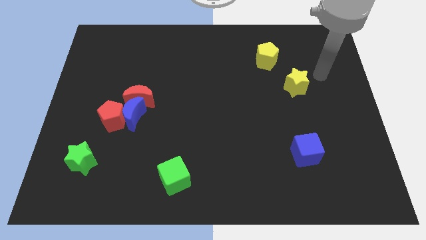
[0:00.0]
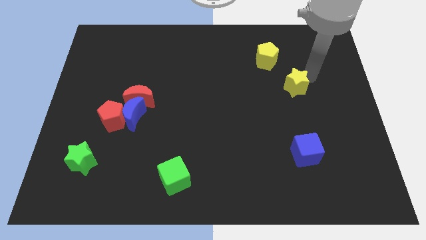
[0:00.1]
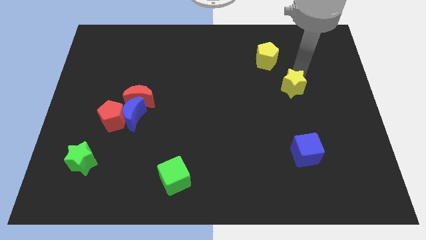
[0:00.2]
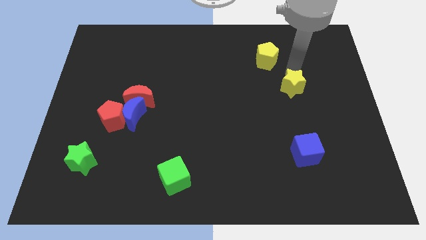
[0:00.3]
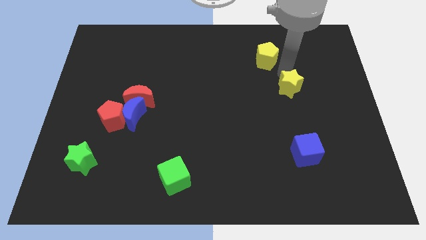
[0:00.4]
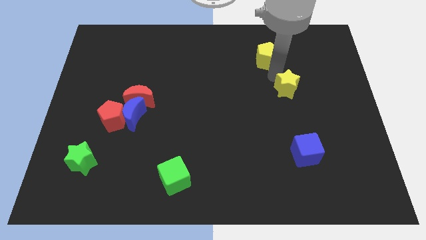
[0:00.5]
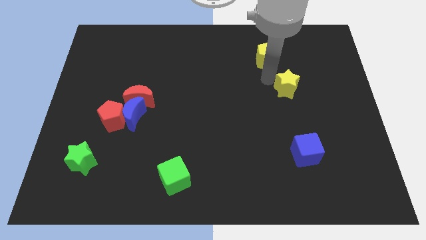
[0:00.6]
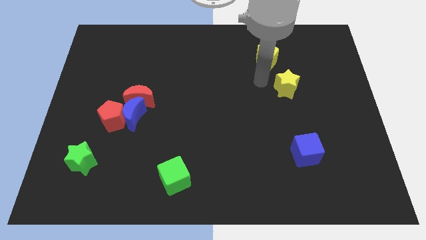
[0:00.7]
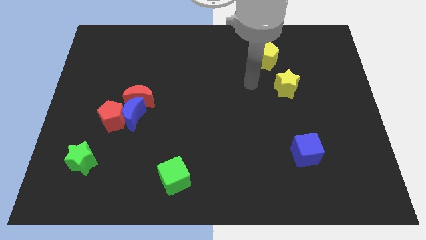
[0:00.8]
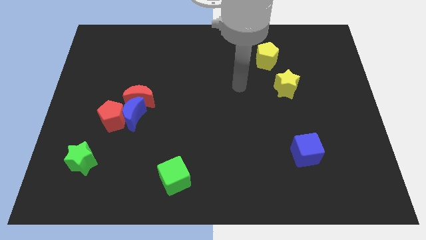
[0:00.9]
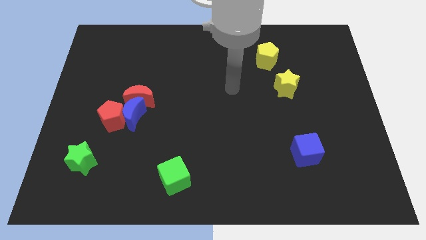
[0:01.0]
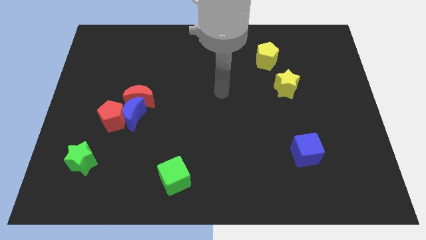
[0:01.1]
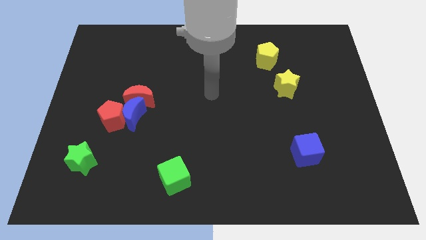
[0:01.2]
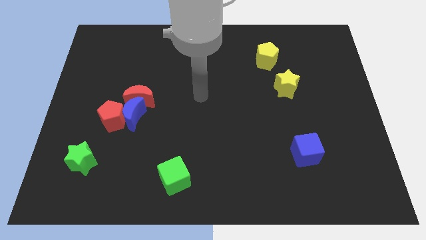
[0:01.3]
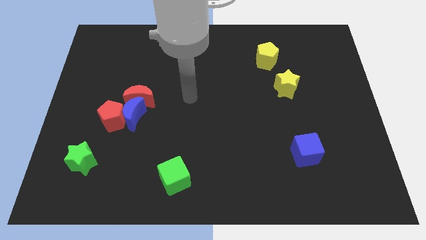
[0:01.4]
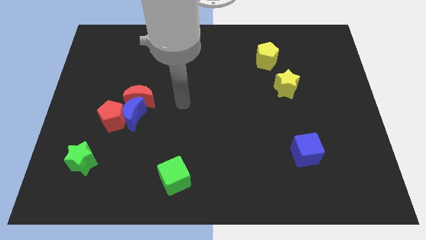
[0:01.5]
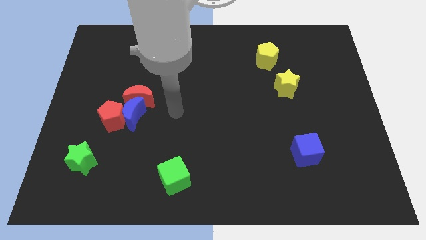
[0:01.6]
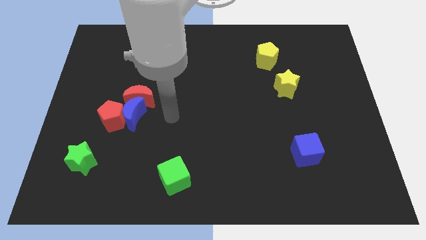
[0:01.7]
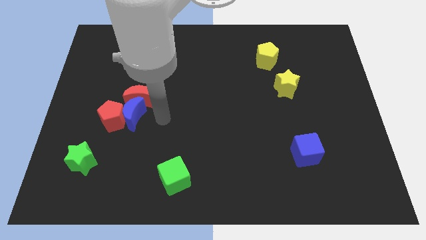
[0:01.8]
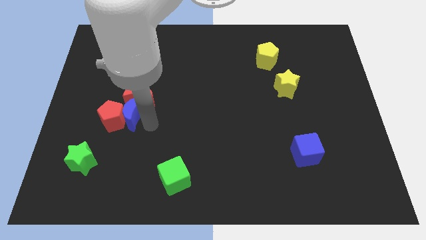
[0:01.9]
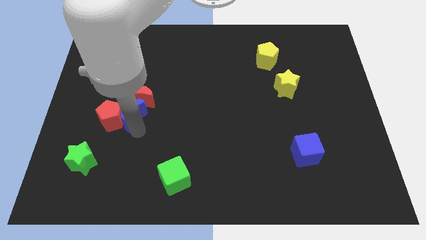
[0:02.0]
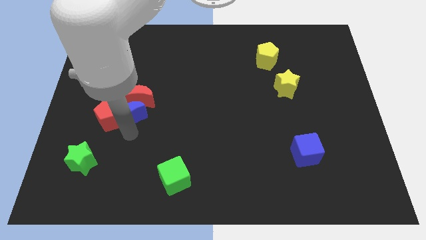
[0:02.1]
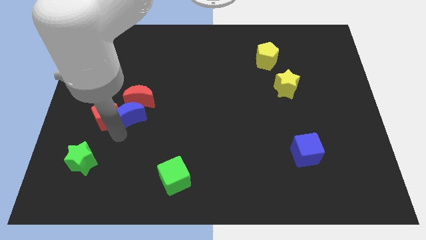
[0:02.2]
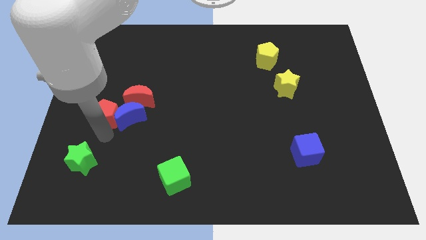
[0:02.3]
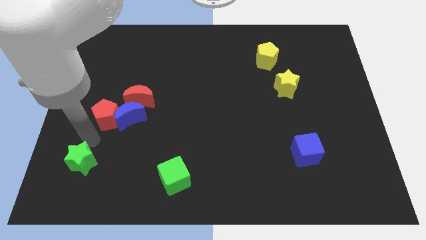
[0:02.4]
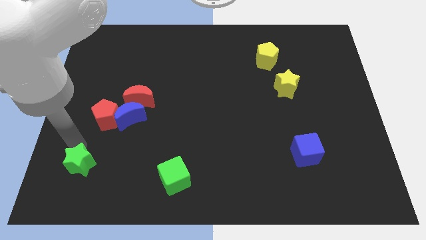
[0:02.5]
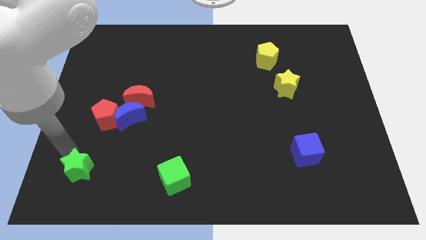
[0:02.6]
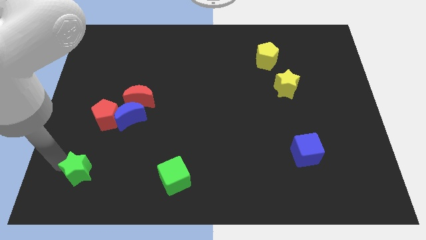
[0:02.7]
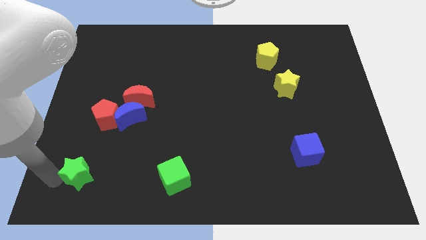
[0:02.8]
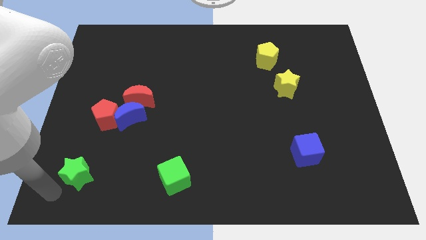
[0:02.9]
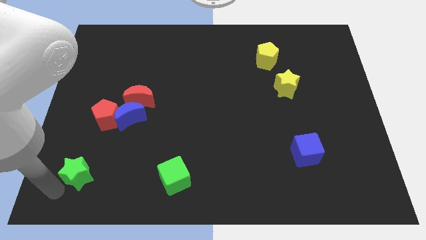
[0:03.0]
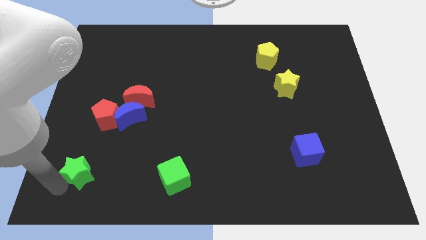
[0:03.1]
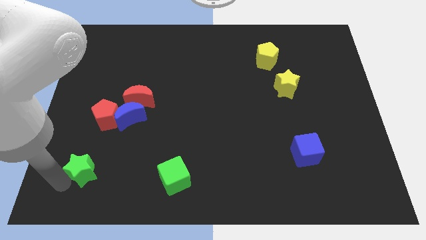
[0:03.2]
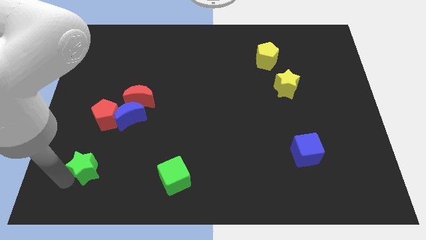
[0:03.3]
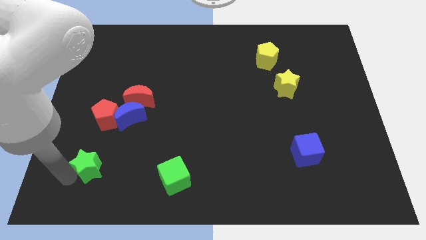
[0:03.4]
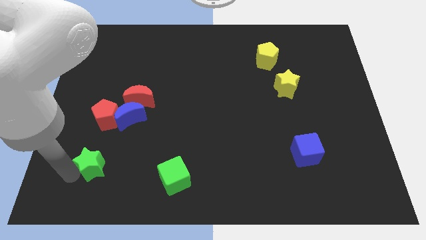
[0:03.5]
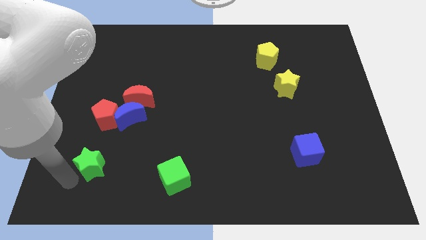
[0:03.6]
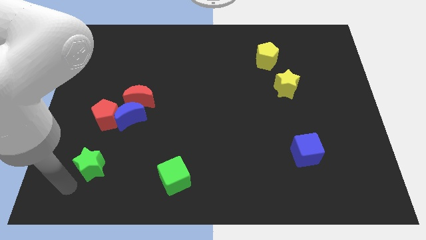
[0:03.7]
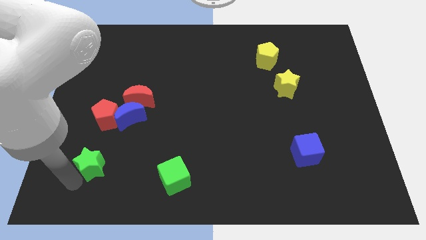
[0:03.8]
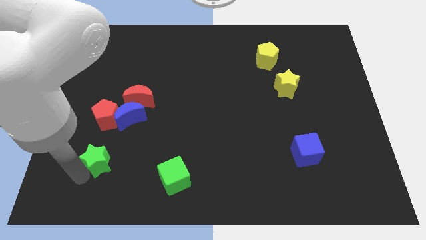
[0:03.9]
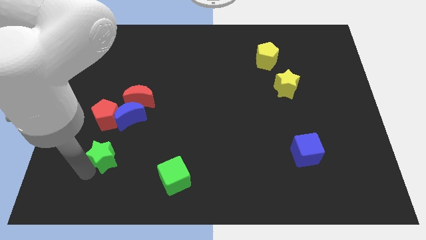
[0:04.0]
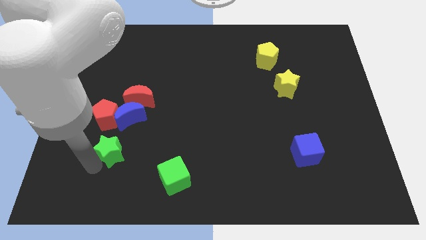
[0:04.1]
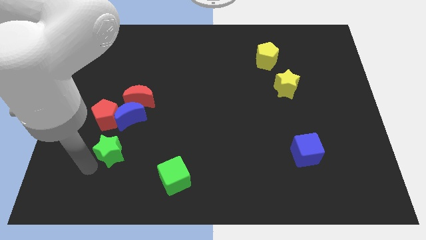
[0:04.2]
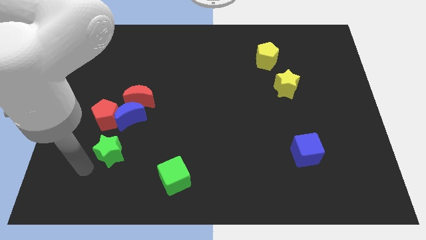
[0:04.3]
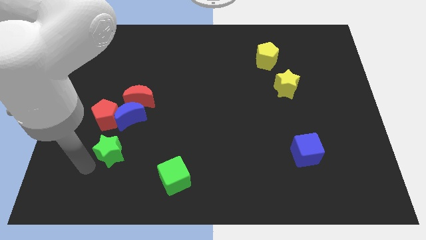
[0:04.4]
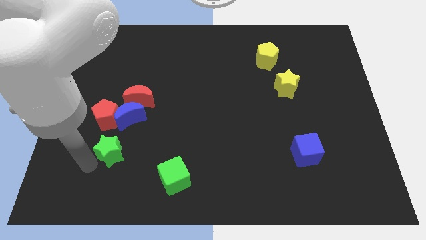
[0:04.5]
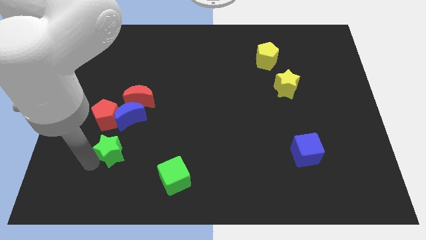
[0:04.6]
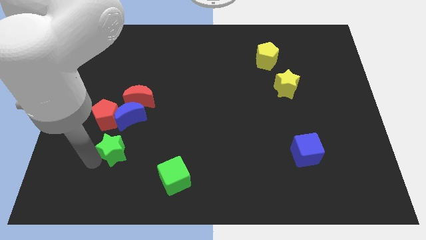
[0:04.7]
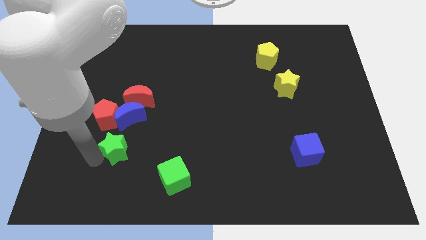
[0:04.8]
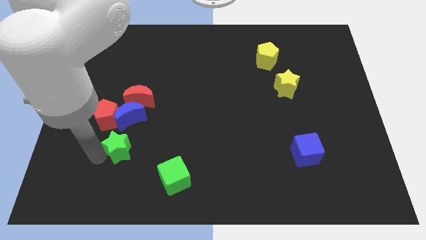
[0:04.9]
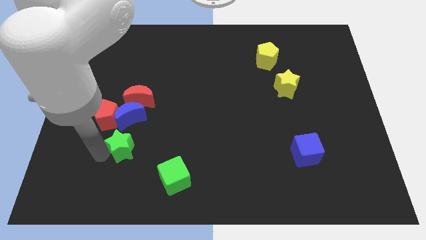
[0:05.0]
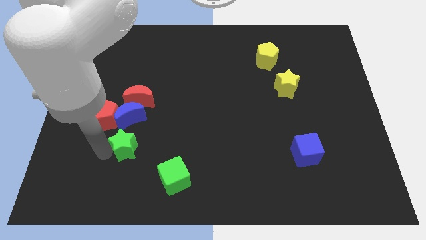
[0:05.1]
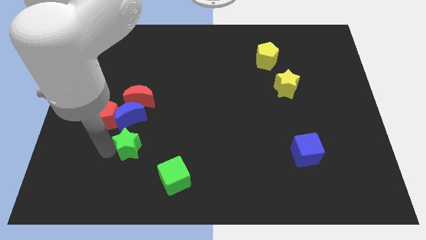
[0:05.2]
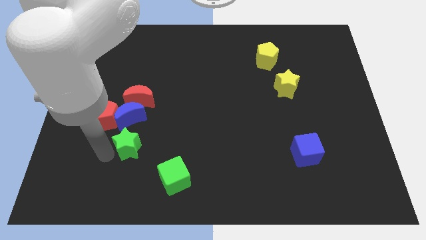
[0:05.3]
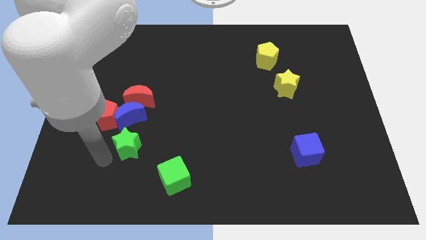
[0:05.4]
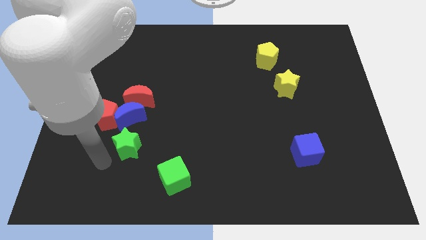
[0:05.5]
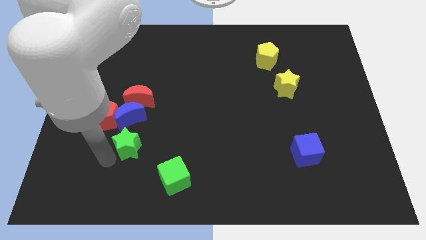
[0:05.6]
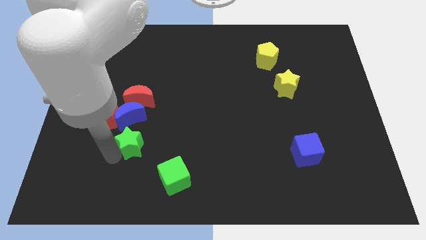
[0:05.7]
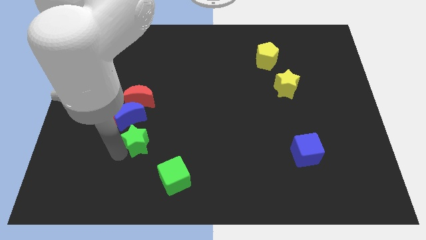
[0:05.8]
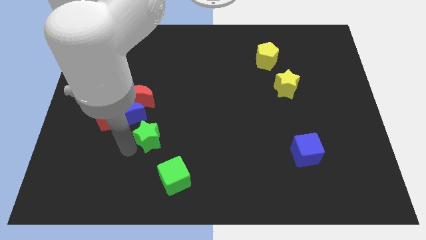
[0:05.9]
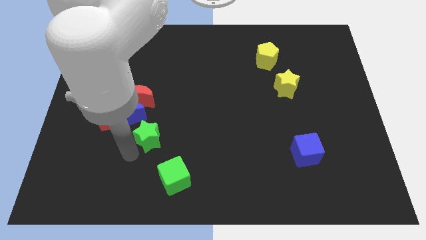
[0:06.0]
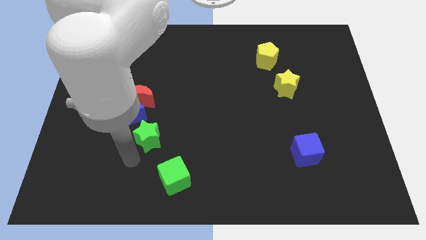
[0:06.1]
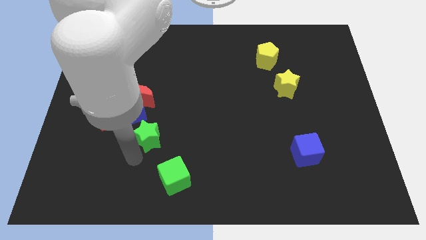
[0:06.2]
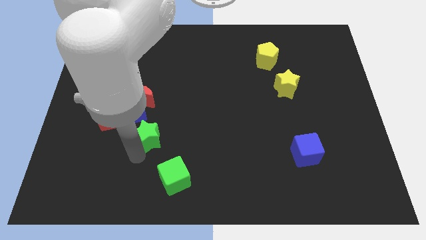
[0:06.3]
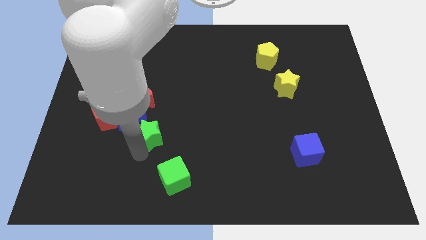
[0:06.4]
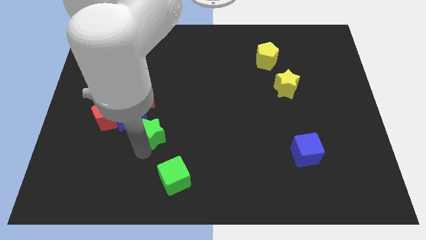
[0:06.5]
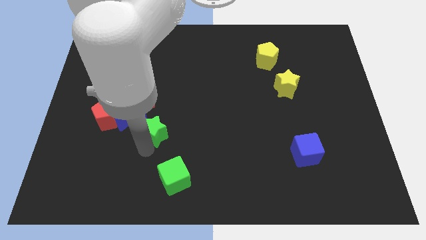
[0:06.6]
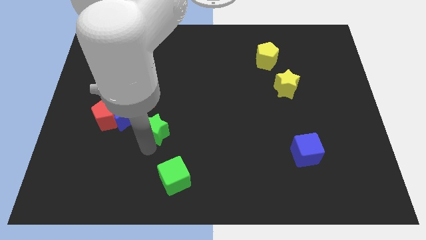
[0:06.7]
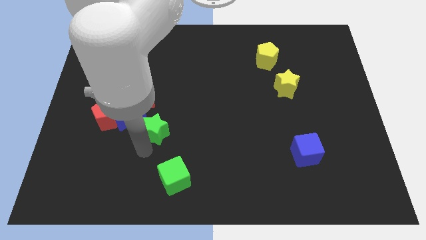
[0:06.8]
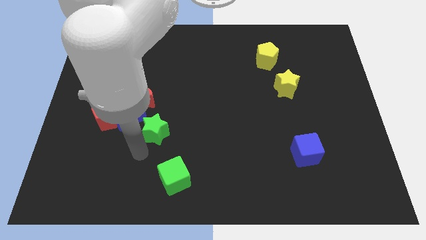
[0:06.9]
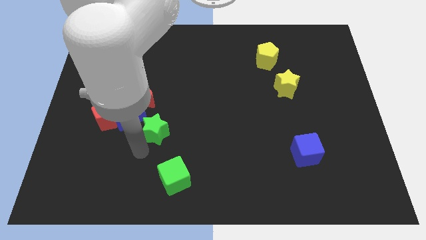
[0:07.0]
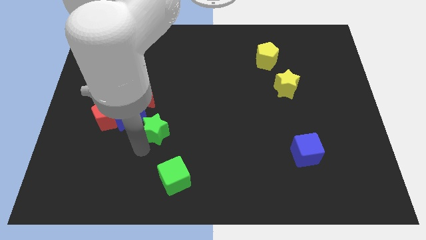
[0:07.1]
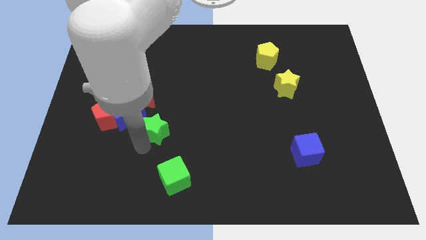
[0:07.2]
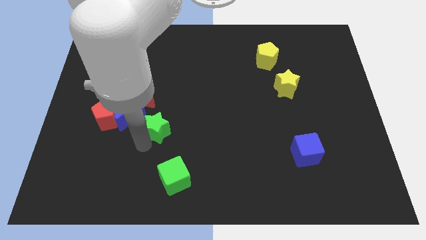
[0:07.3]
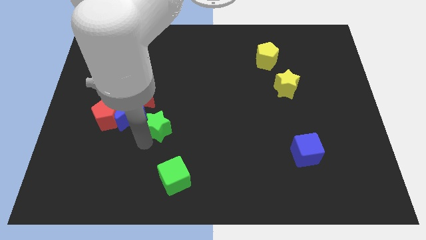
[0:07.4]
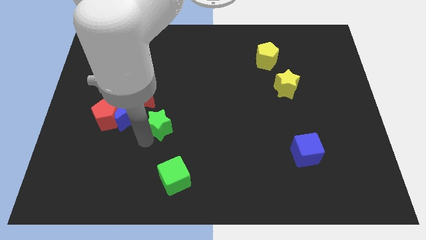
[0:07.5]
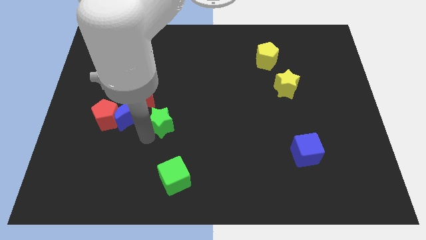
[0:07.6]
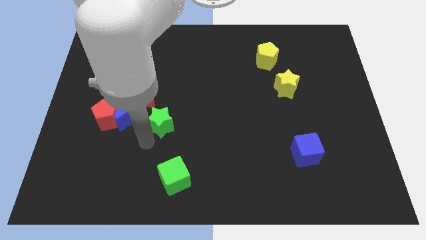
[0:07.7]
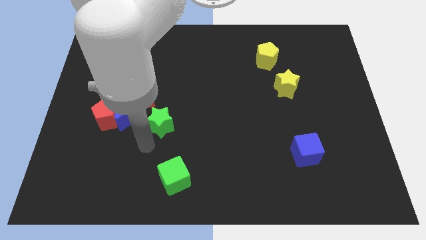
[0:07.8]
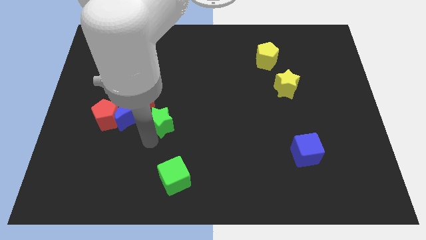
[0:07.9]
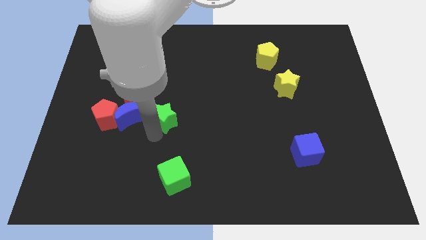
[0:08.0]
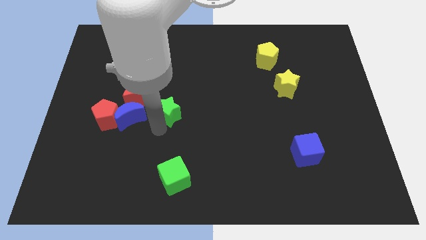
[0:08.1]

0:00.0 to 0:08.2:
slide the green star diagonally upwards and to the right
